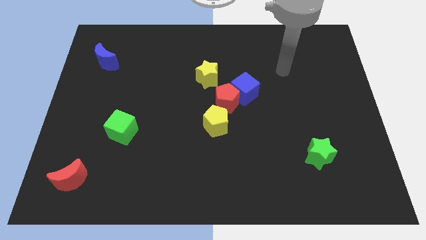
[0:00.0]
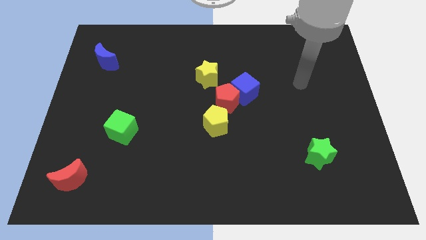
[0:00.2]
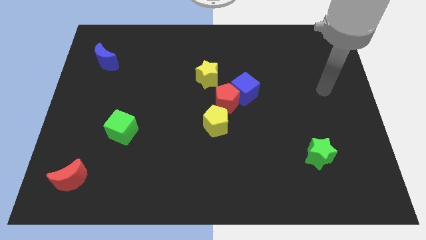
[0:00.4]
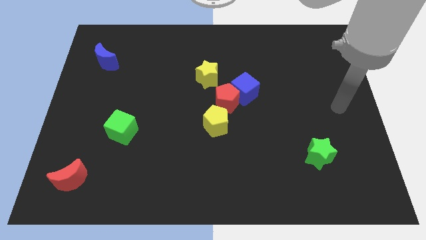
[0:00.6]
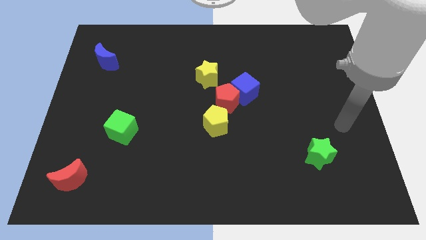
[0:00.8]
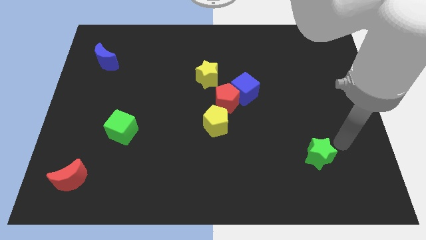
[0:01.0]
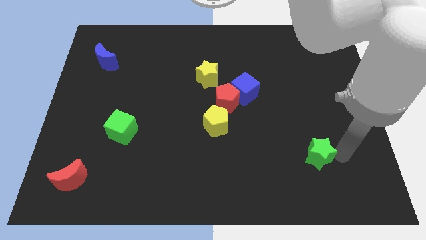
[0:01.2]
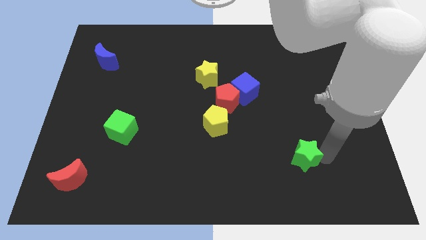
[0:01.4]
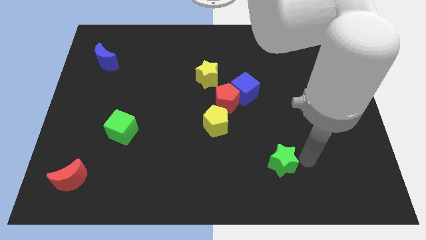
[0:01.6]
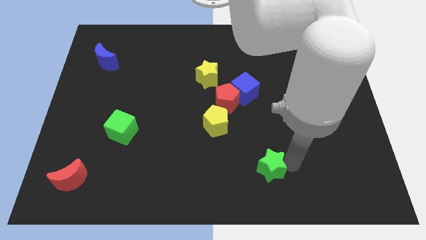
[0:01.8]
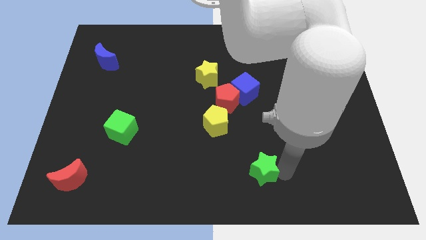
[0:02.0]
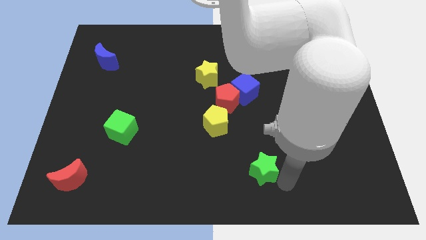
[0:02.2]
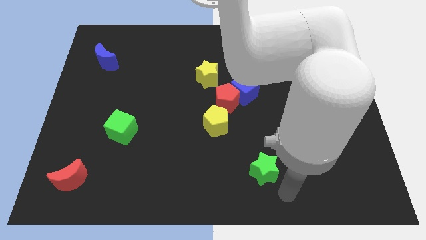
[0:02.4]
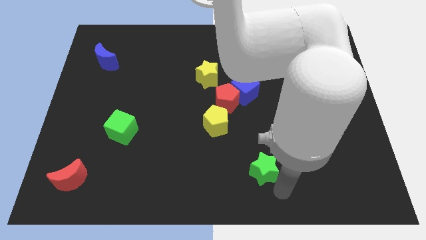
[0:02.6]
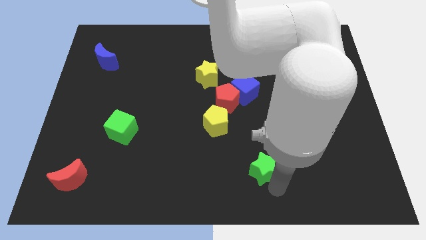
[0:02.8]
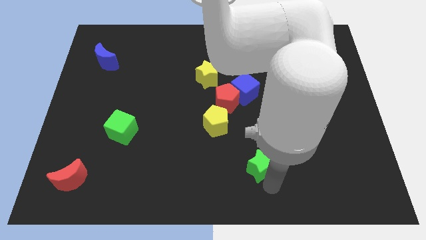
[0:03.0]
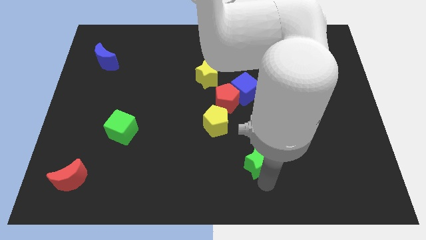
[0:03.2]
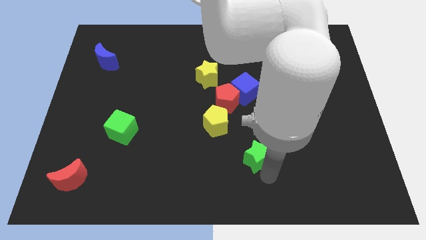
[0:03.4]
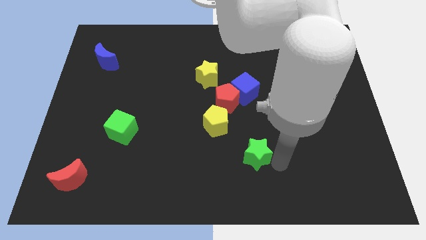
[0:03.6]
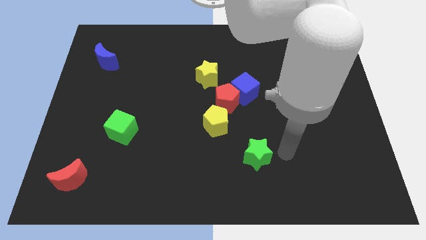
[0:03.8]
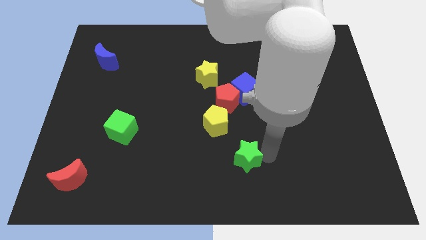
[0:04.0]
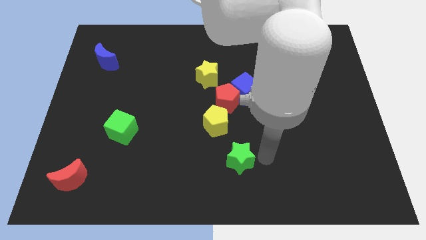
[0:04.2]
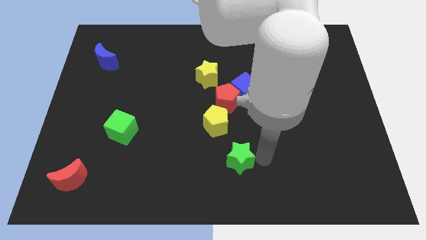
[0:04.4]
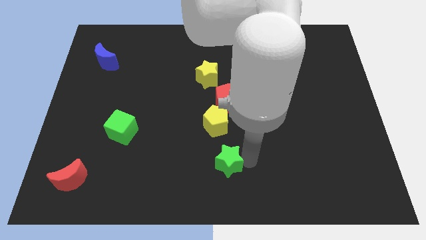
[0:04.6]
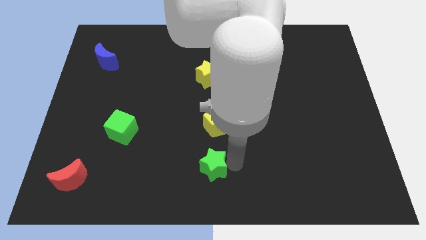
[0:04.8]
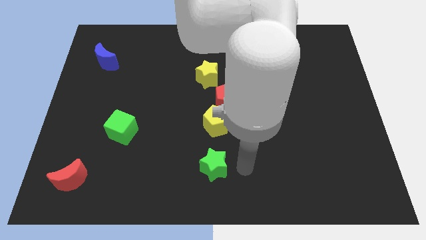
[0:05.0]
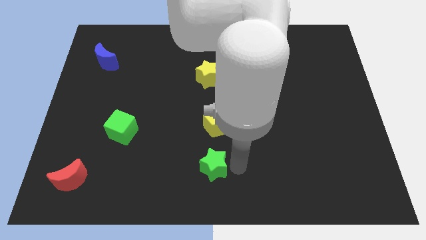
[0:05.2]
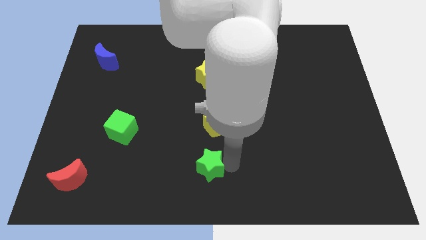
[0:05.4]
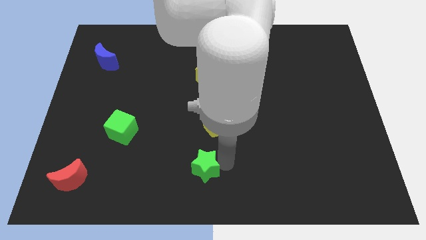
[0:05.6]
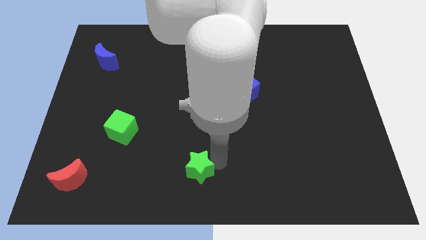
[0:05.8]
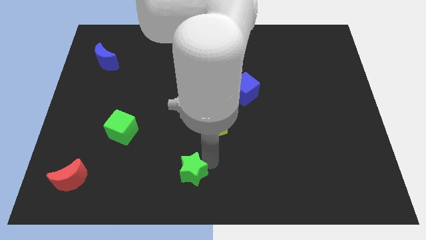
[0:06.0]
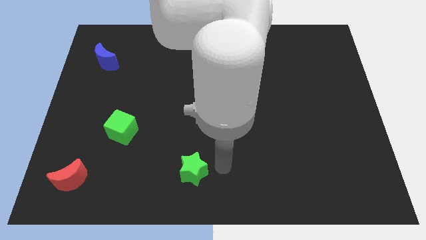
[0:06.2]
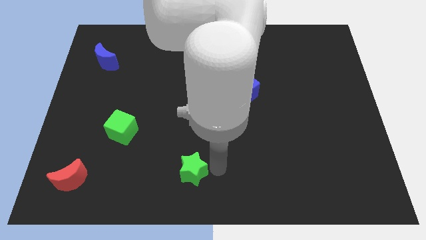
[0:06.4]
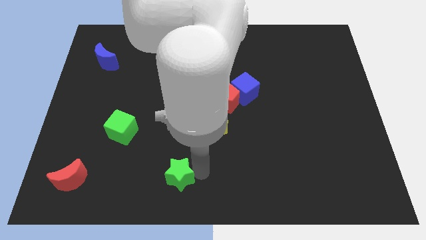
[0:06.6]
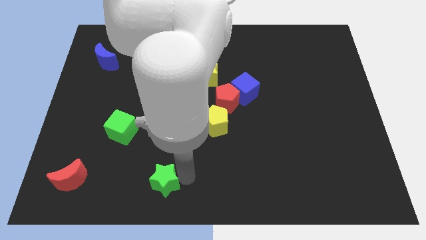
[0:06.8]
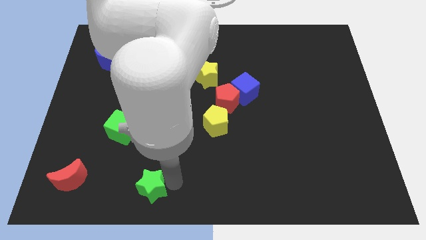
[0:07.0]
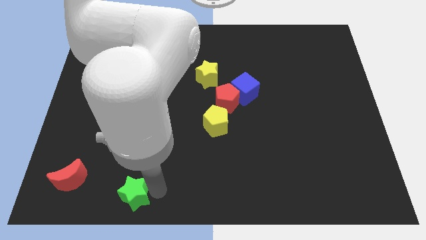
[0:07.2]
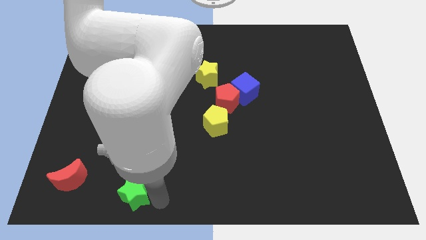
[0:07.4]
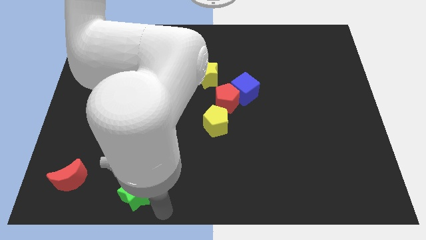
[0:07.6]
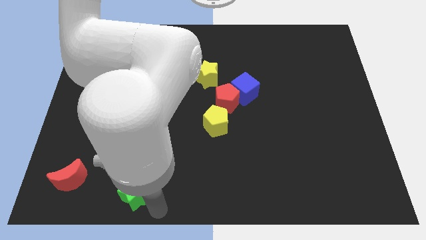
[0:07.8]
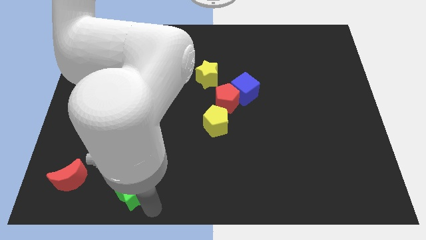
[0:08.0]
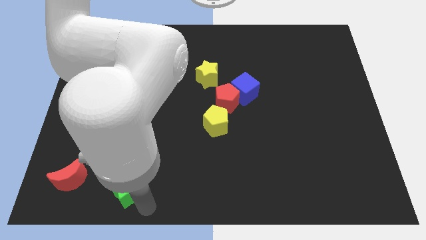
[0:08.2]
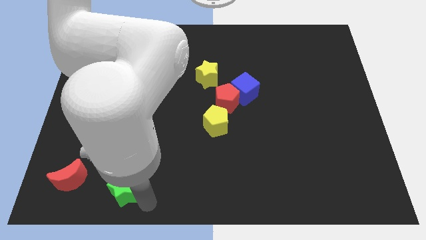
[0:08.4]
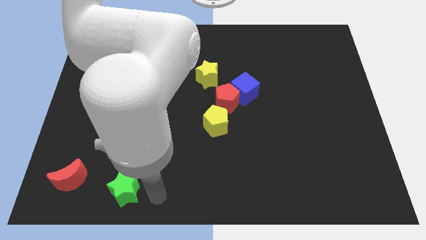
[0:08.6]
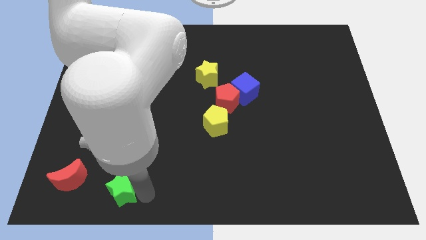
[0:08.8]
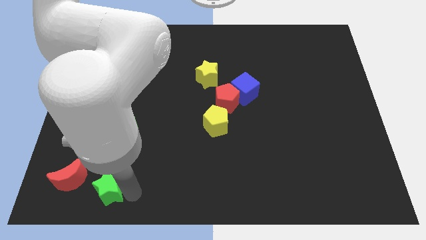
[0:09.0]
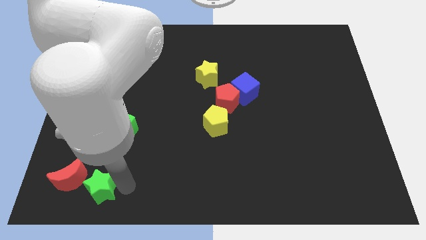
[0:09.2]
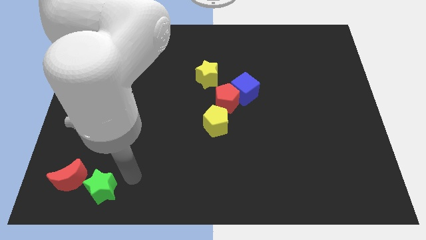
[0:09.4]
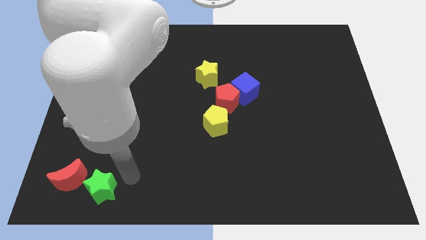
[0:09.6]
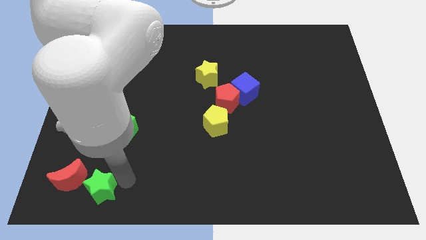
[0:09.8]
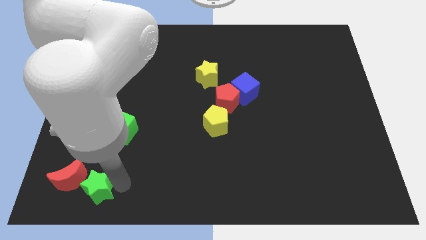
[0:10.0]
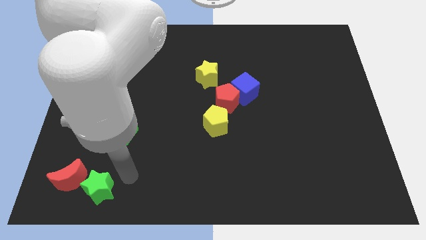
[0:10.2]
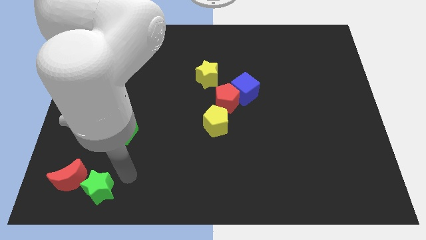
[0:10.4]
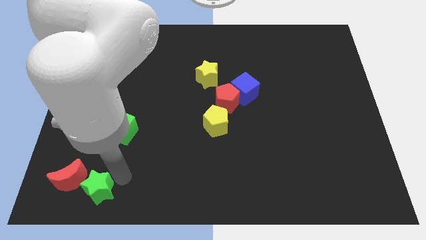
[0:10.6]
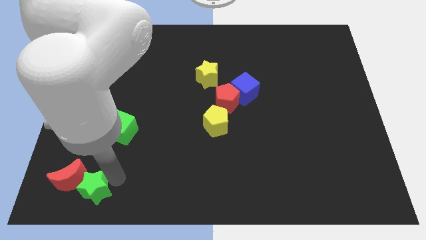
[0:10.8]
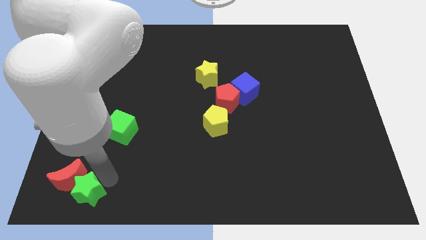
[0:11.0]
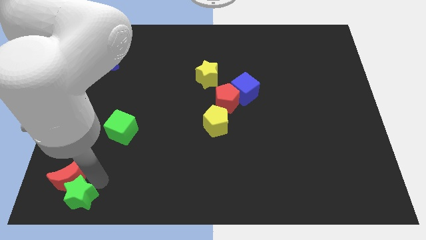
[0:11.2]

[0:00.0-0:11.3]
push the green star to the lower left corner

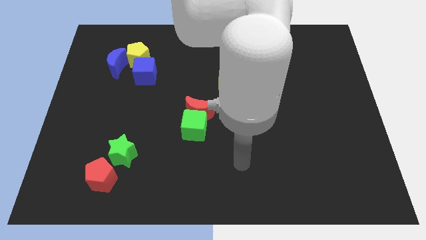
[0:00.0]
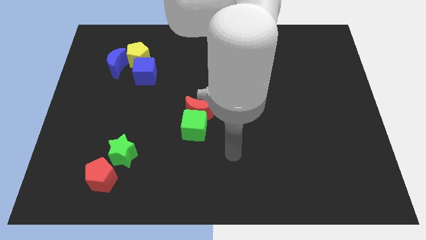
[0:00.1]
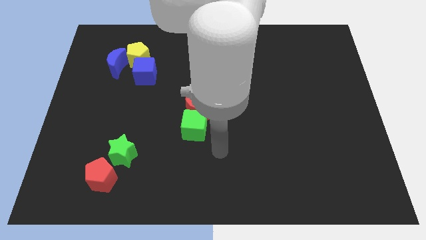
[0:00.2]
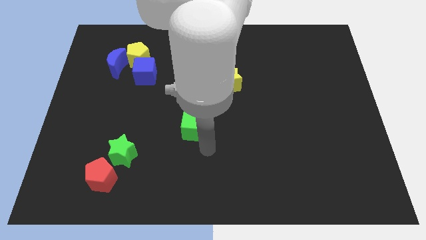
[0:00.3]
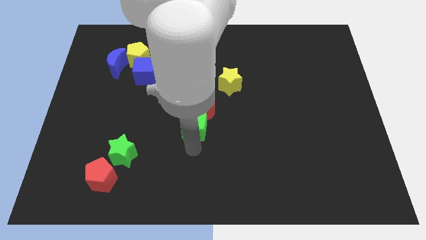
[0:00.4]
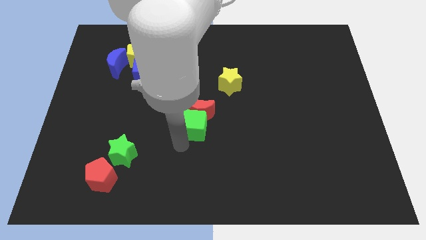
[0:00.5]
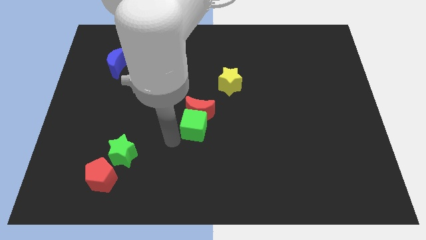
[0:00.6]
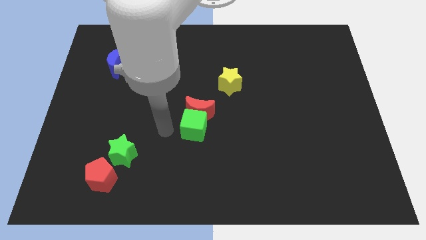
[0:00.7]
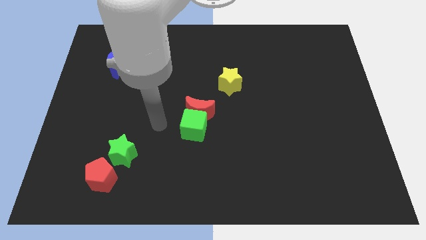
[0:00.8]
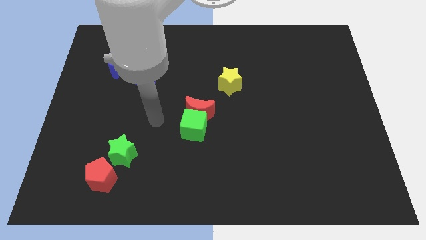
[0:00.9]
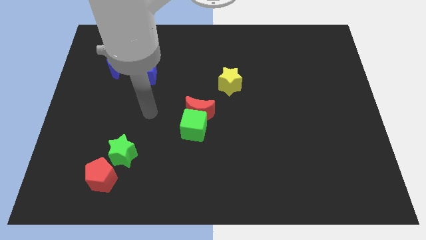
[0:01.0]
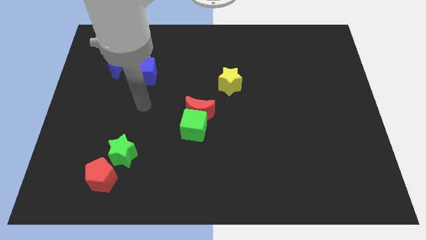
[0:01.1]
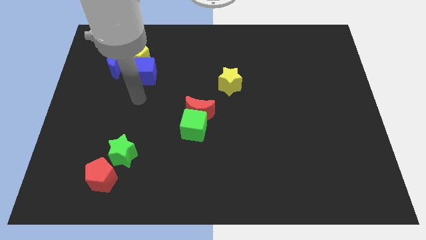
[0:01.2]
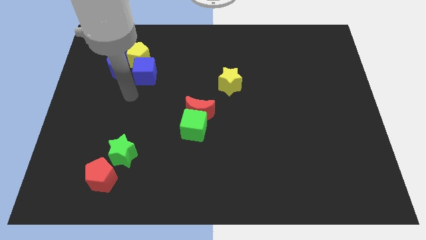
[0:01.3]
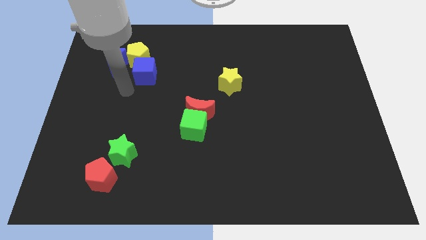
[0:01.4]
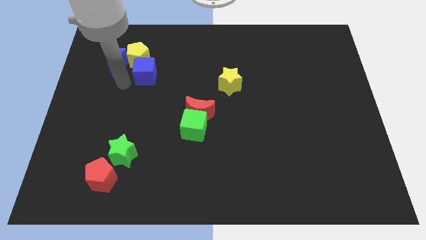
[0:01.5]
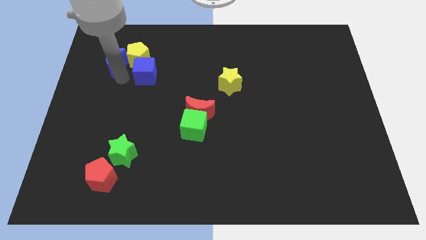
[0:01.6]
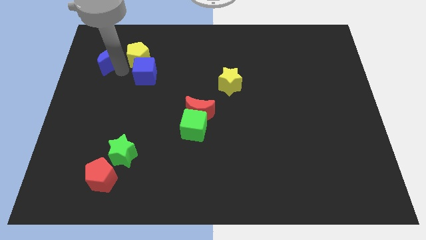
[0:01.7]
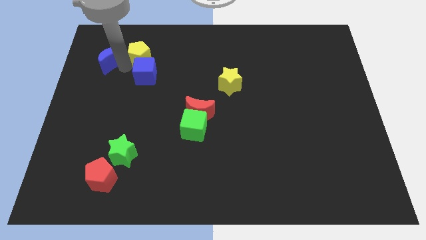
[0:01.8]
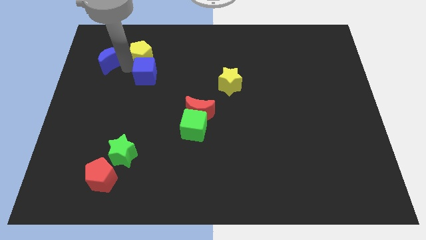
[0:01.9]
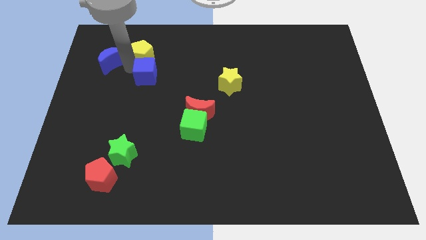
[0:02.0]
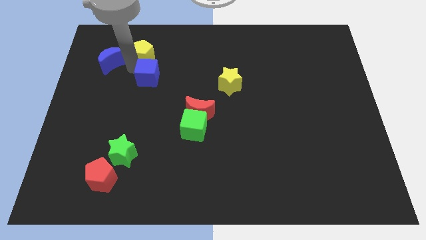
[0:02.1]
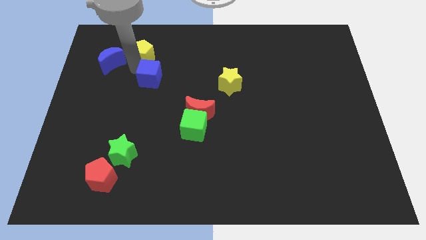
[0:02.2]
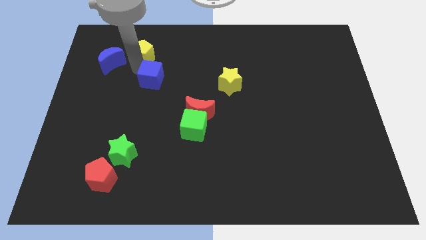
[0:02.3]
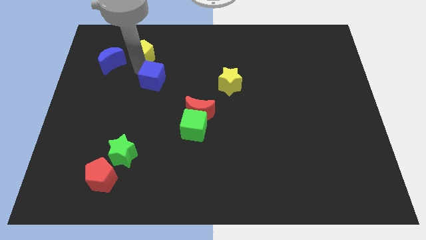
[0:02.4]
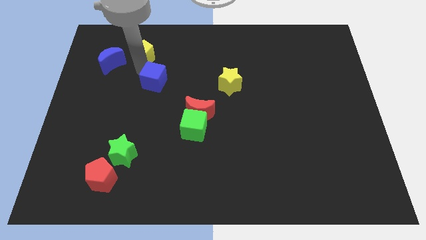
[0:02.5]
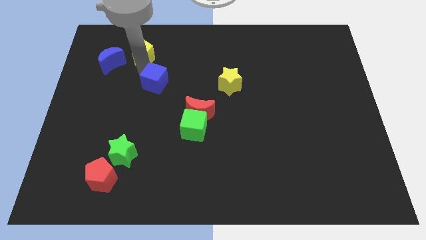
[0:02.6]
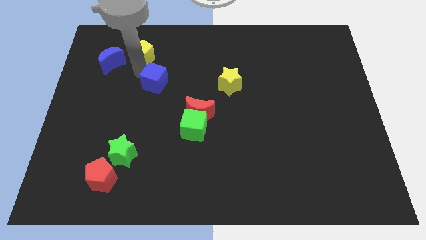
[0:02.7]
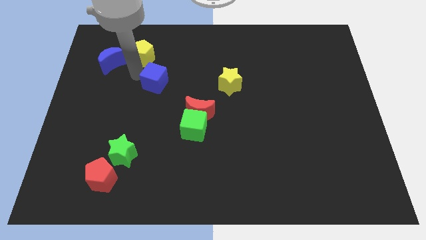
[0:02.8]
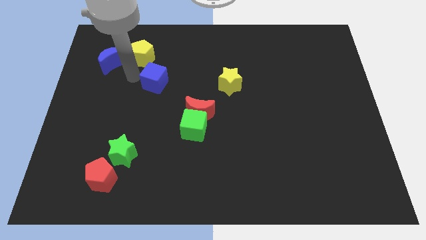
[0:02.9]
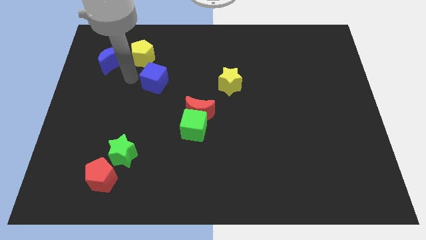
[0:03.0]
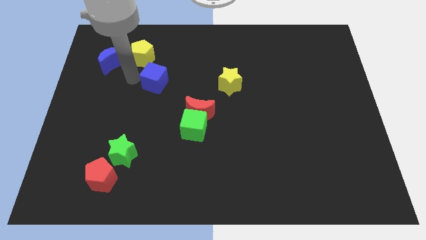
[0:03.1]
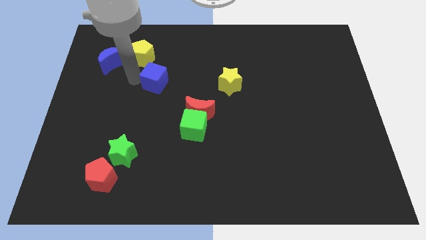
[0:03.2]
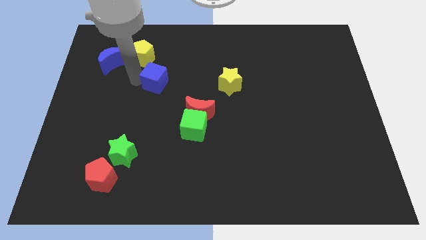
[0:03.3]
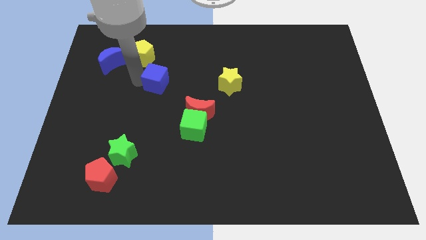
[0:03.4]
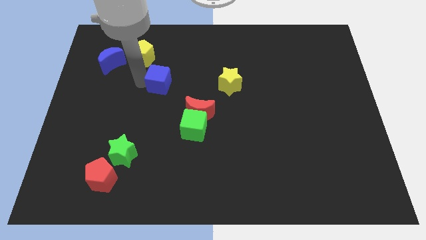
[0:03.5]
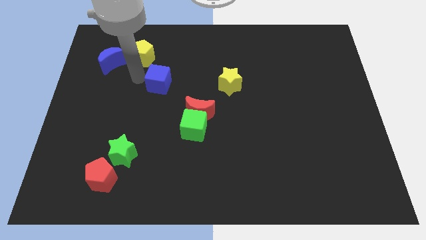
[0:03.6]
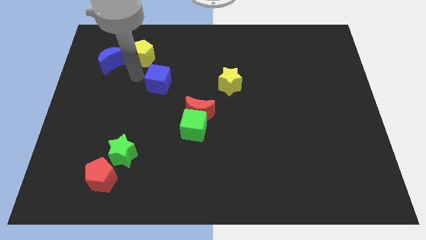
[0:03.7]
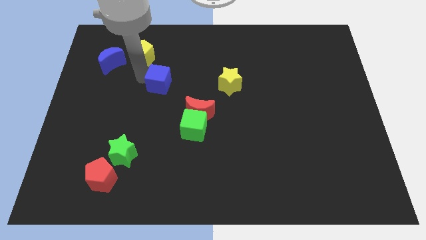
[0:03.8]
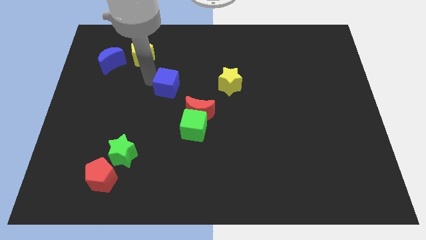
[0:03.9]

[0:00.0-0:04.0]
push the blue cube to the center of the board
